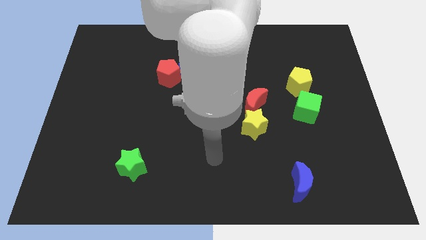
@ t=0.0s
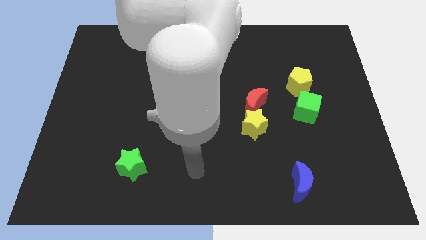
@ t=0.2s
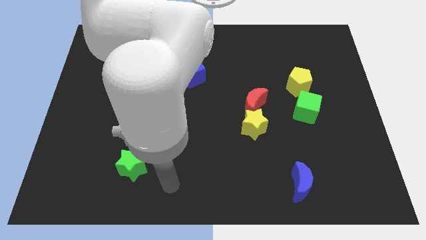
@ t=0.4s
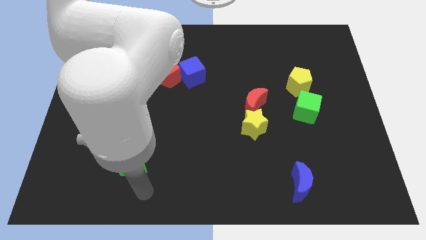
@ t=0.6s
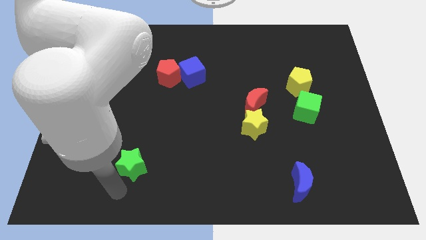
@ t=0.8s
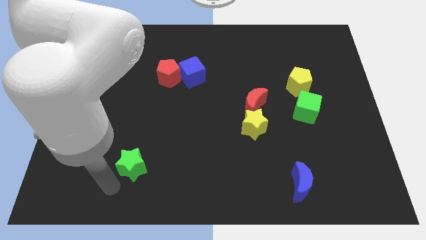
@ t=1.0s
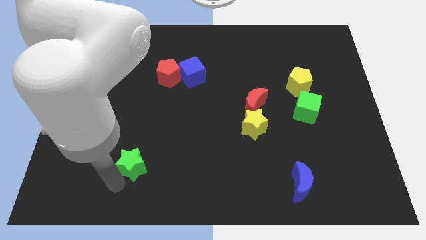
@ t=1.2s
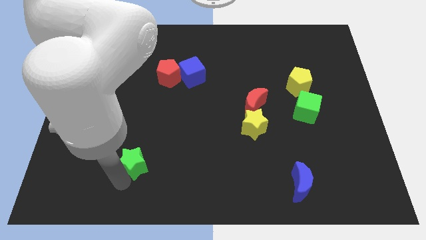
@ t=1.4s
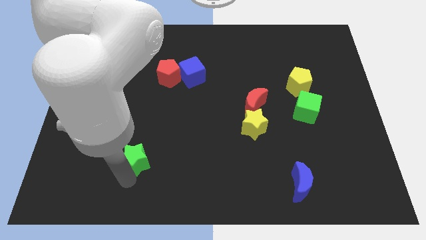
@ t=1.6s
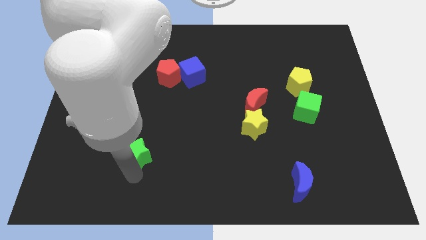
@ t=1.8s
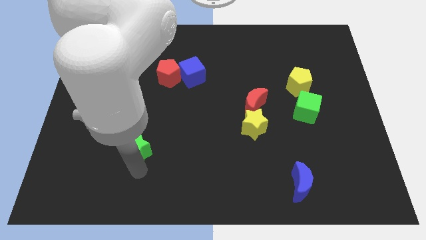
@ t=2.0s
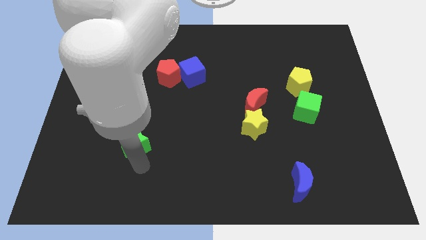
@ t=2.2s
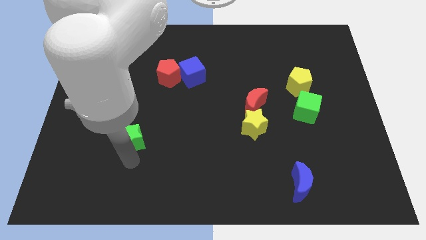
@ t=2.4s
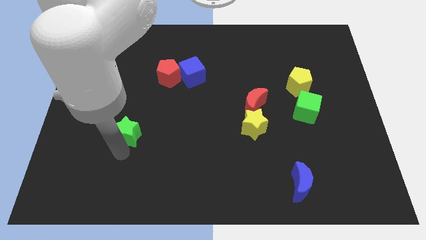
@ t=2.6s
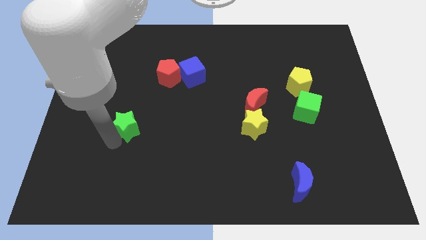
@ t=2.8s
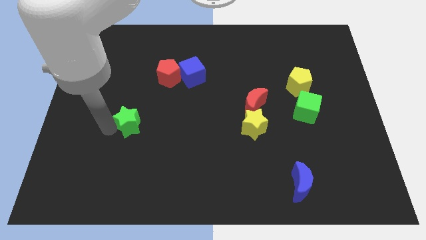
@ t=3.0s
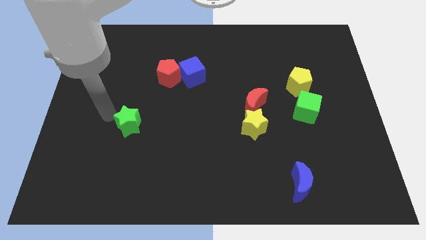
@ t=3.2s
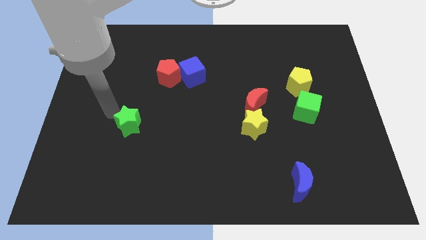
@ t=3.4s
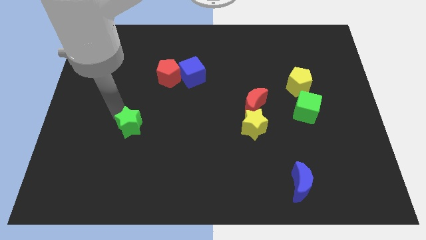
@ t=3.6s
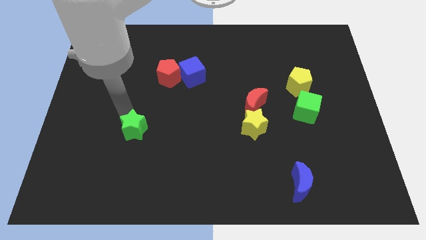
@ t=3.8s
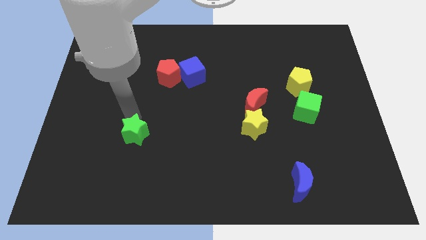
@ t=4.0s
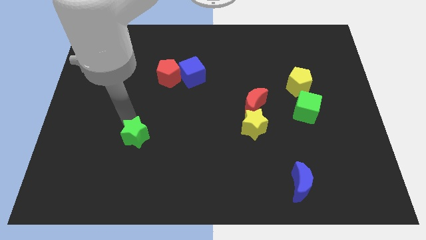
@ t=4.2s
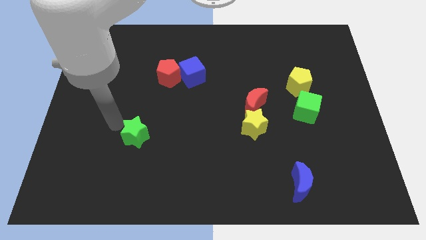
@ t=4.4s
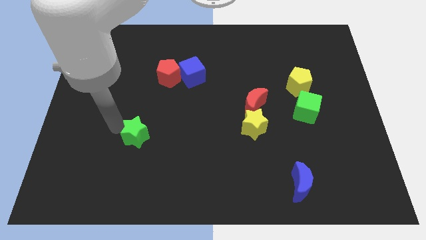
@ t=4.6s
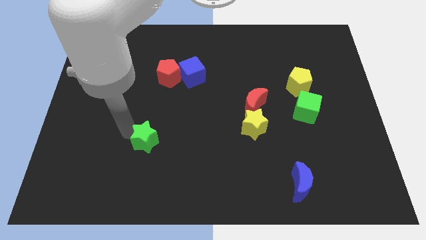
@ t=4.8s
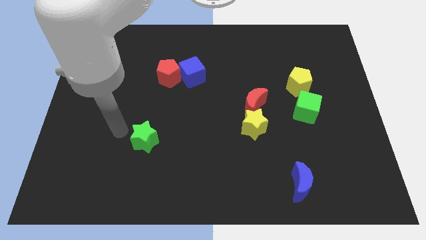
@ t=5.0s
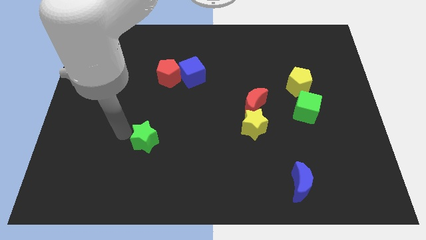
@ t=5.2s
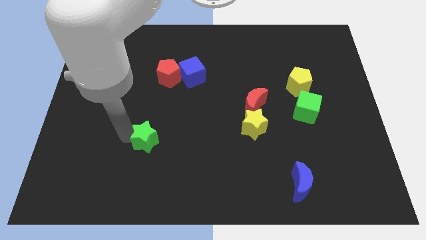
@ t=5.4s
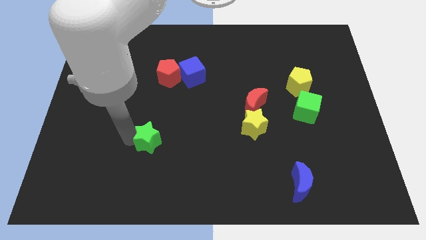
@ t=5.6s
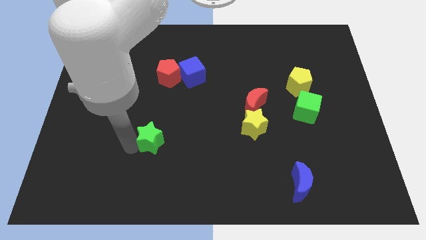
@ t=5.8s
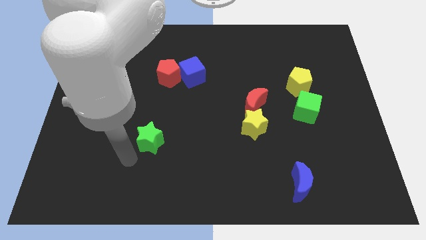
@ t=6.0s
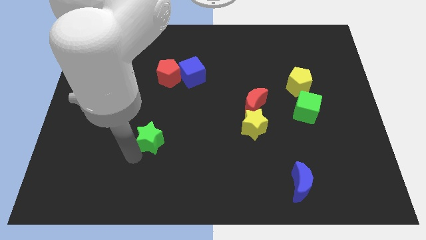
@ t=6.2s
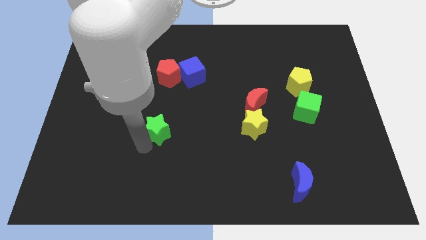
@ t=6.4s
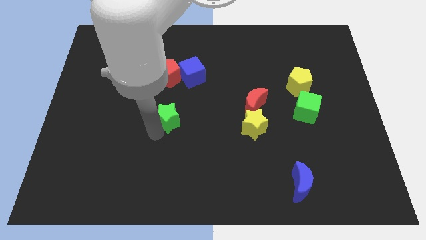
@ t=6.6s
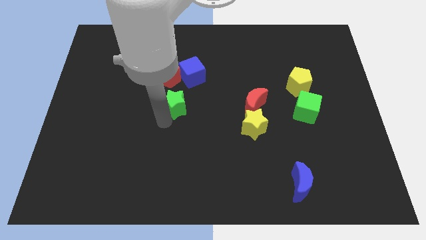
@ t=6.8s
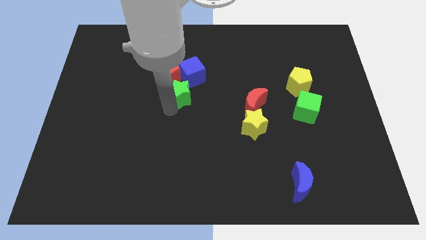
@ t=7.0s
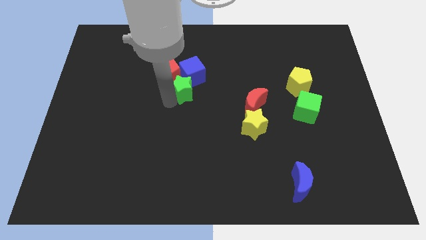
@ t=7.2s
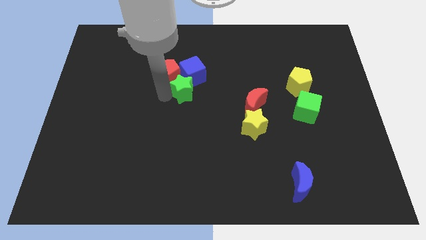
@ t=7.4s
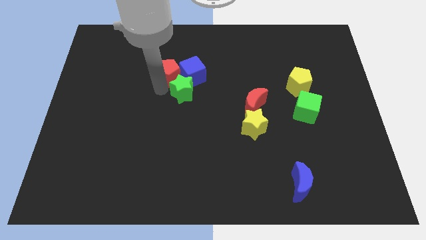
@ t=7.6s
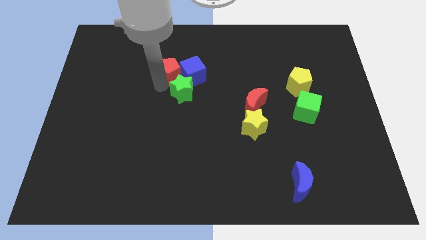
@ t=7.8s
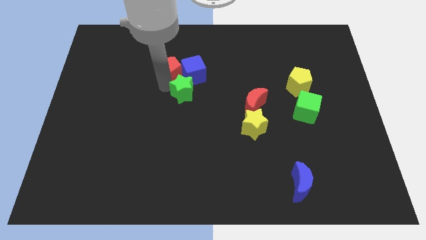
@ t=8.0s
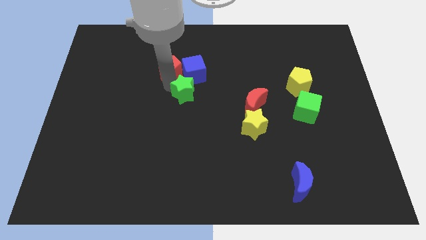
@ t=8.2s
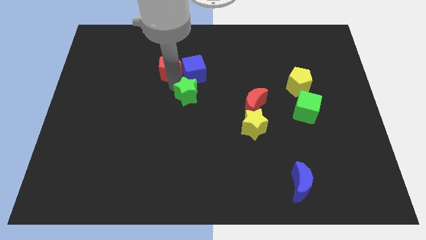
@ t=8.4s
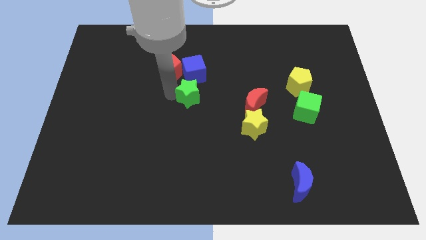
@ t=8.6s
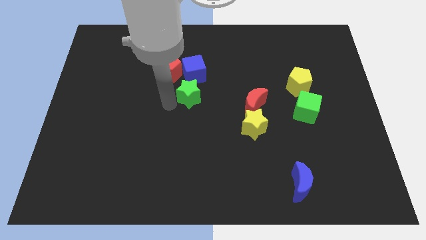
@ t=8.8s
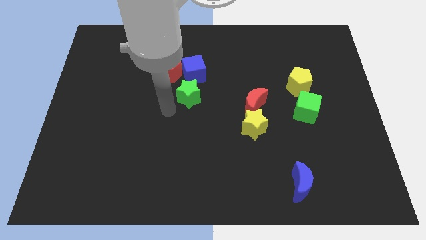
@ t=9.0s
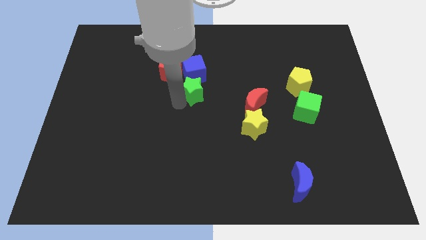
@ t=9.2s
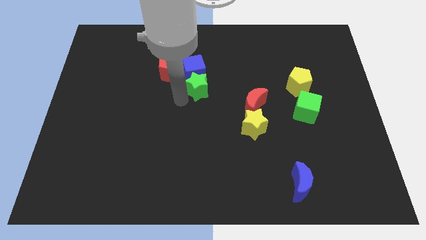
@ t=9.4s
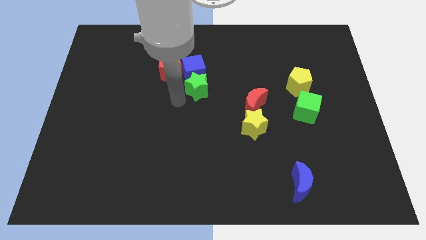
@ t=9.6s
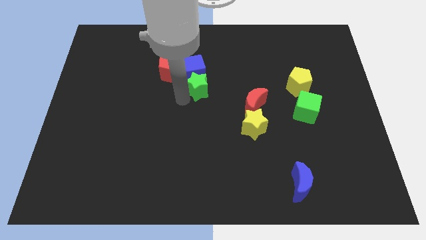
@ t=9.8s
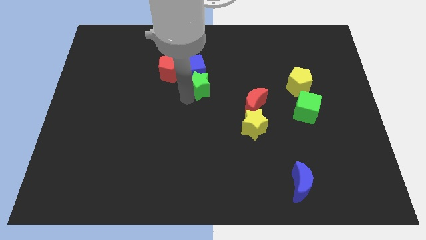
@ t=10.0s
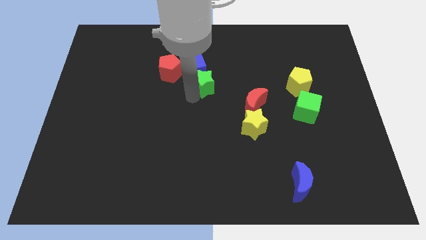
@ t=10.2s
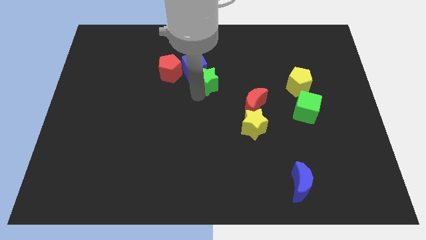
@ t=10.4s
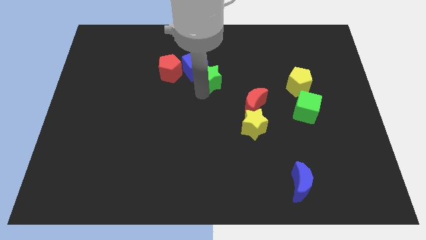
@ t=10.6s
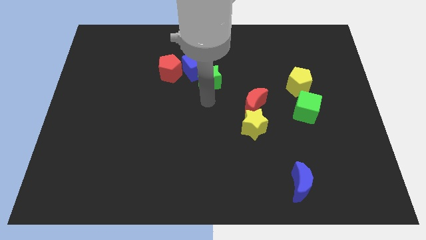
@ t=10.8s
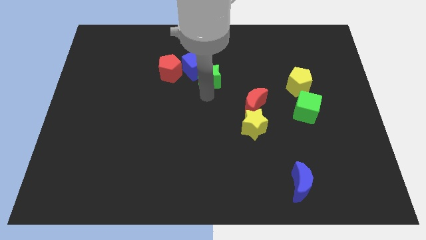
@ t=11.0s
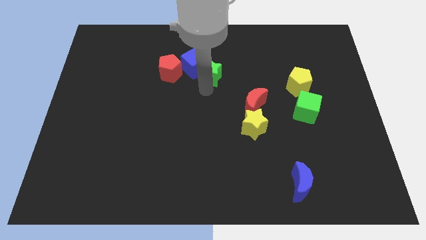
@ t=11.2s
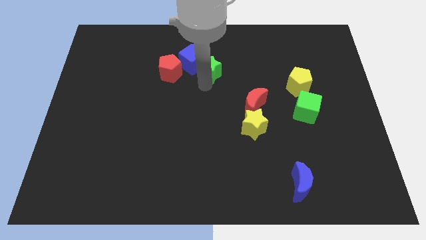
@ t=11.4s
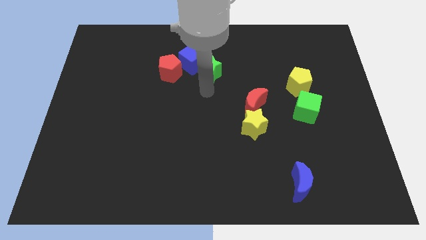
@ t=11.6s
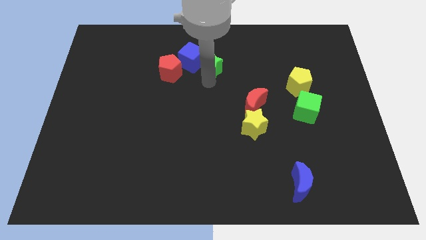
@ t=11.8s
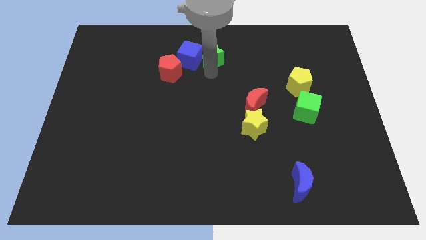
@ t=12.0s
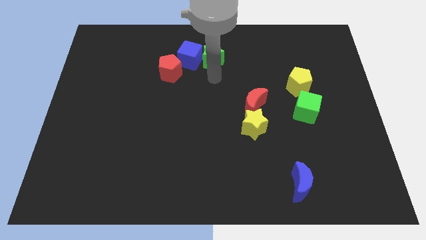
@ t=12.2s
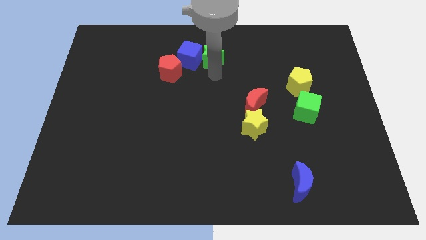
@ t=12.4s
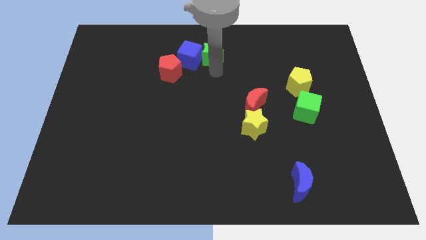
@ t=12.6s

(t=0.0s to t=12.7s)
put the green star to the towards your base

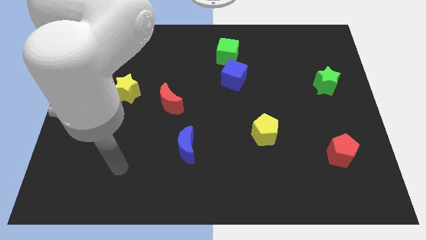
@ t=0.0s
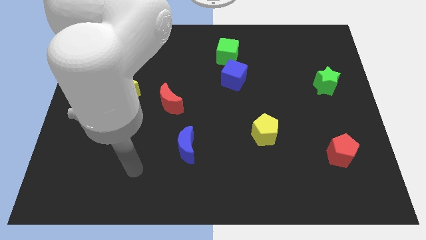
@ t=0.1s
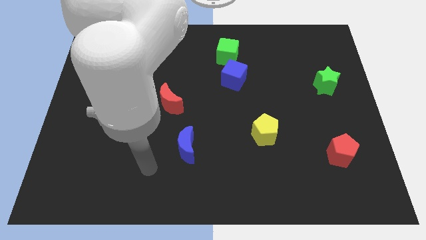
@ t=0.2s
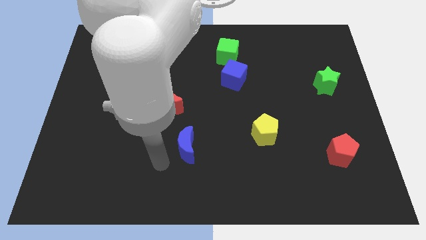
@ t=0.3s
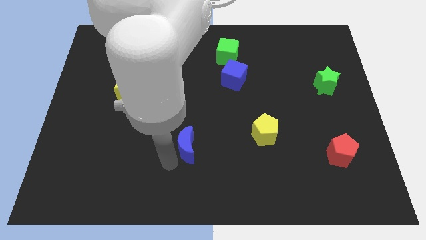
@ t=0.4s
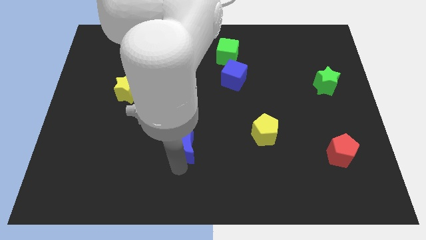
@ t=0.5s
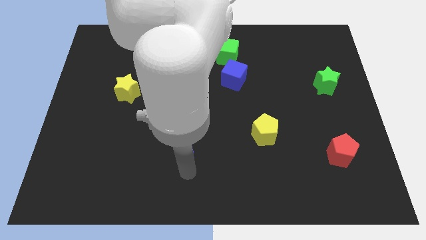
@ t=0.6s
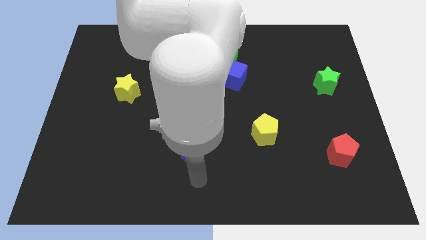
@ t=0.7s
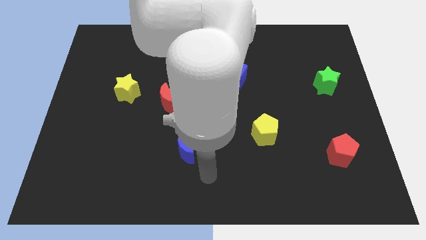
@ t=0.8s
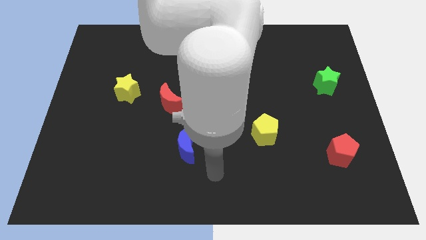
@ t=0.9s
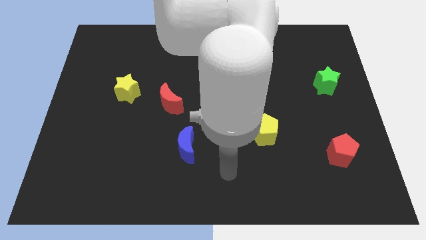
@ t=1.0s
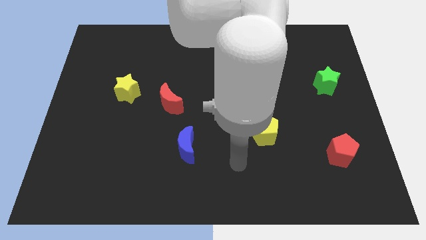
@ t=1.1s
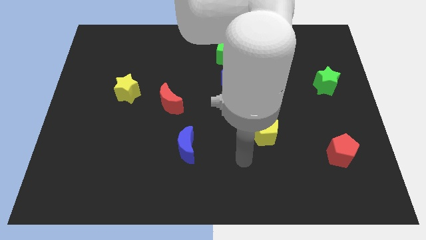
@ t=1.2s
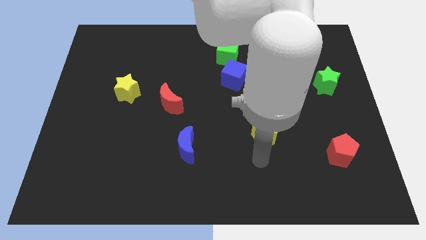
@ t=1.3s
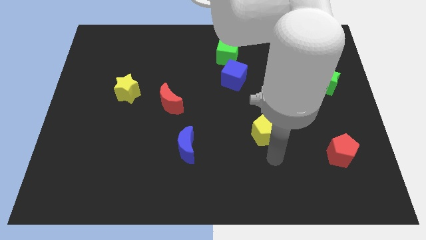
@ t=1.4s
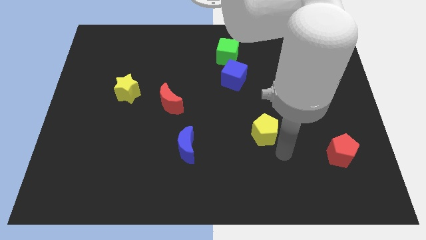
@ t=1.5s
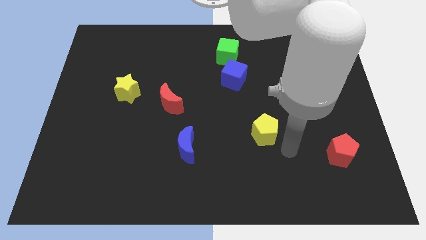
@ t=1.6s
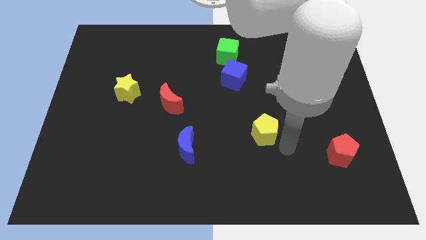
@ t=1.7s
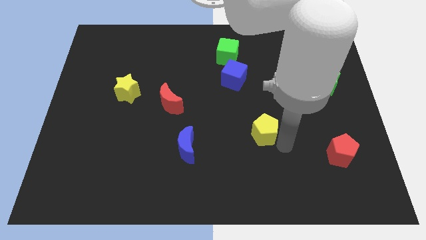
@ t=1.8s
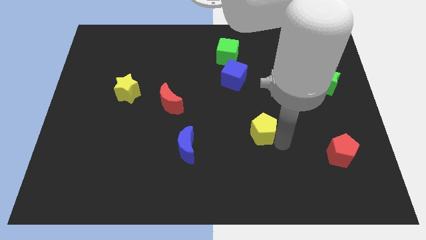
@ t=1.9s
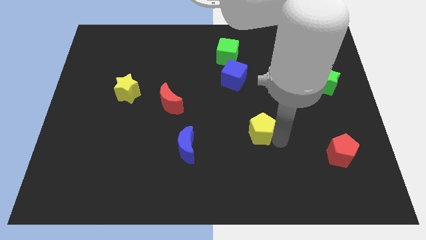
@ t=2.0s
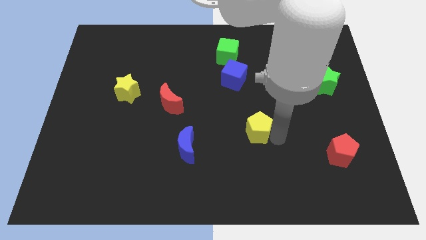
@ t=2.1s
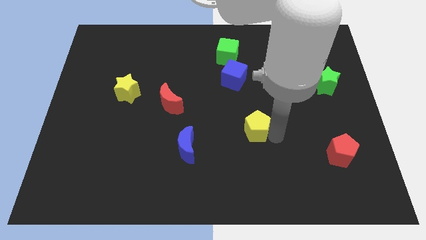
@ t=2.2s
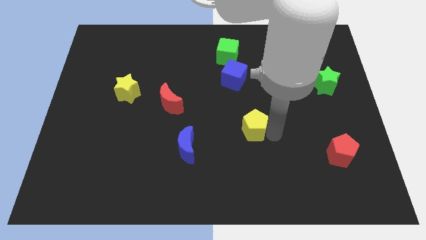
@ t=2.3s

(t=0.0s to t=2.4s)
push the yellow pentagon to the center
